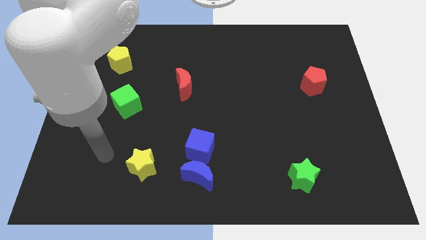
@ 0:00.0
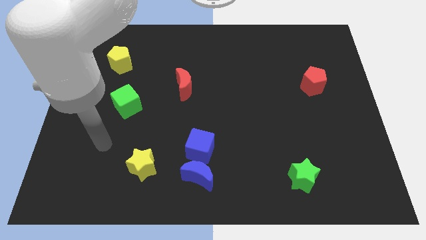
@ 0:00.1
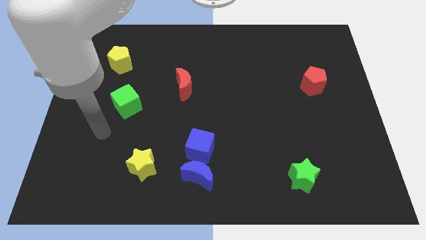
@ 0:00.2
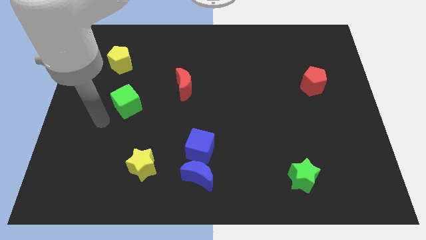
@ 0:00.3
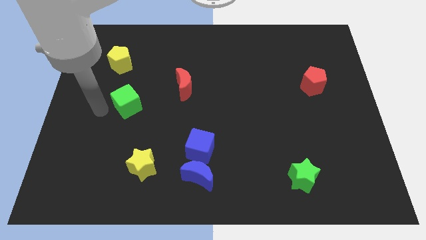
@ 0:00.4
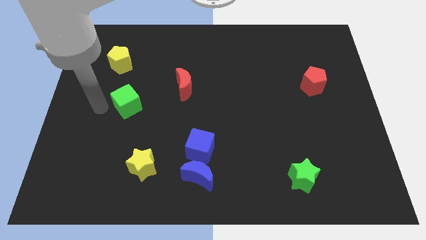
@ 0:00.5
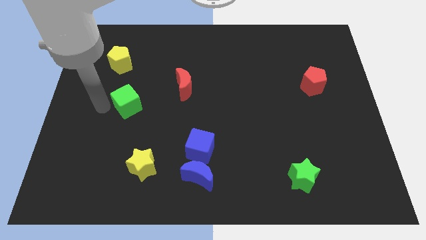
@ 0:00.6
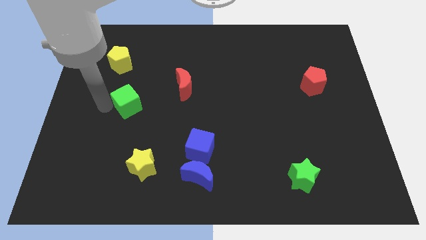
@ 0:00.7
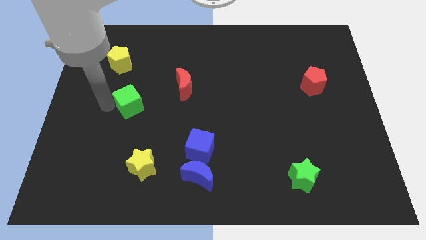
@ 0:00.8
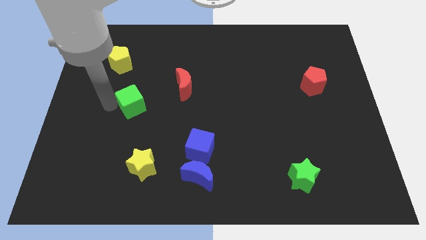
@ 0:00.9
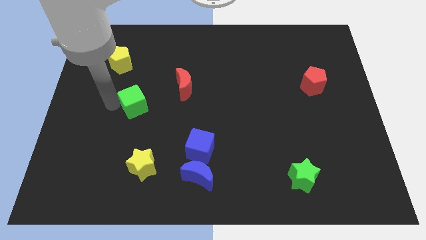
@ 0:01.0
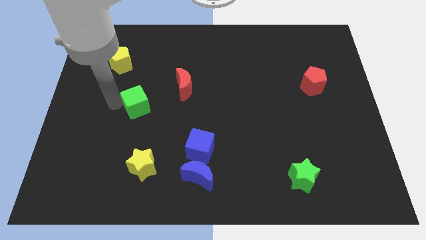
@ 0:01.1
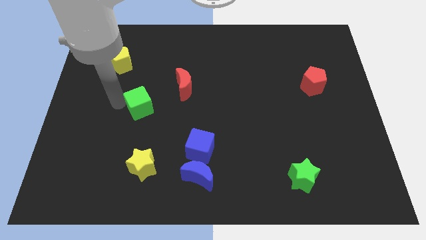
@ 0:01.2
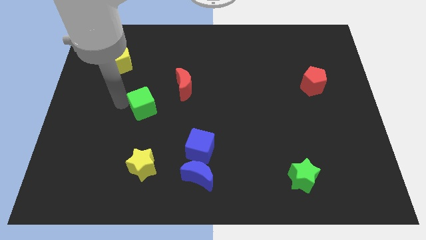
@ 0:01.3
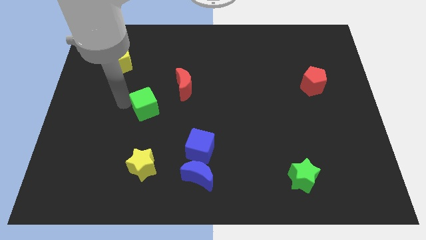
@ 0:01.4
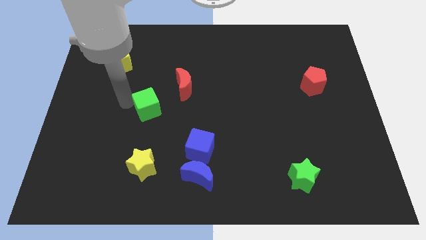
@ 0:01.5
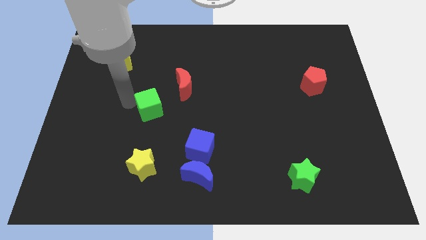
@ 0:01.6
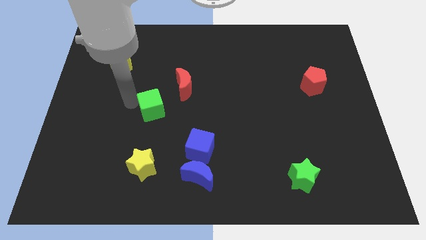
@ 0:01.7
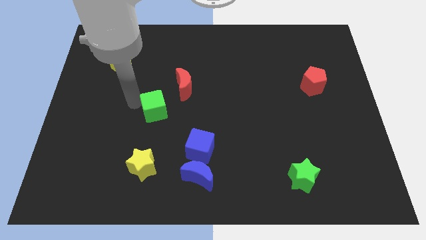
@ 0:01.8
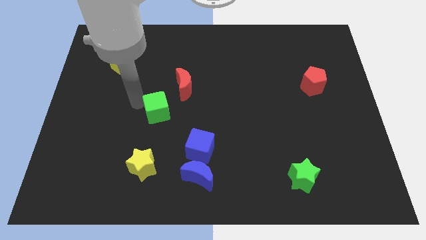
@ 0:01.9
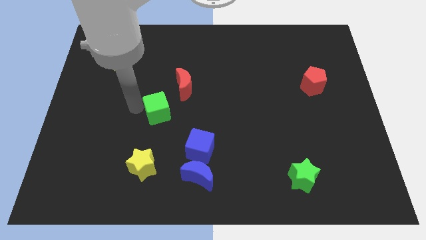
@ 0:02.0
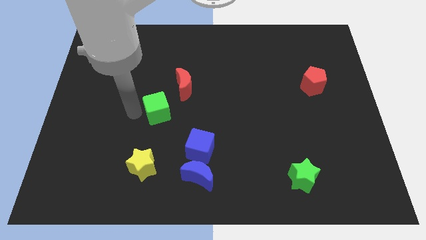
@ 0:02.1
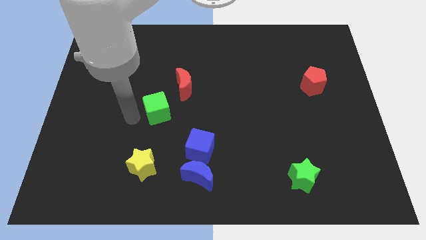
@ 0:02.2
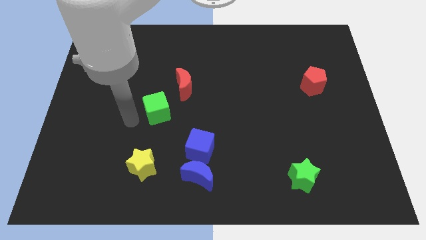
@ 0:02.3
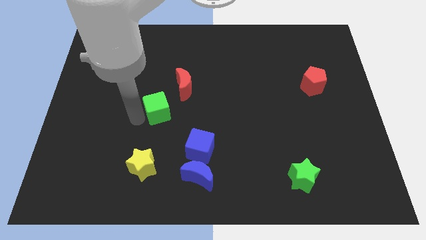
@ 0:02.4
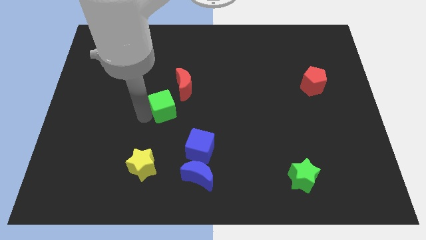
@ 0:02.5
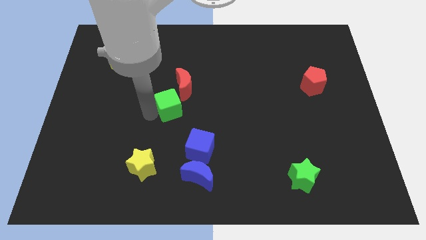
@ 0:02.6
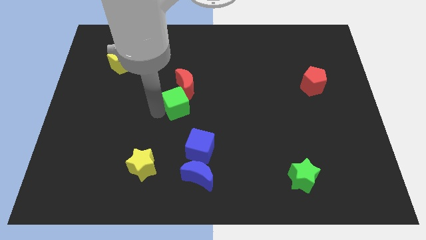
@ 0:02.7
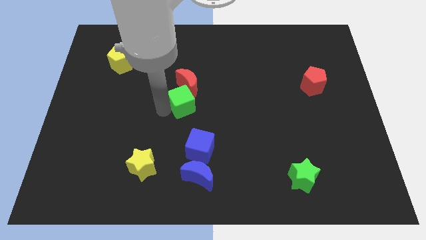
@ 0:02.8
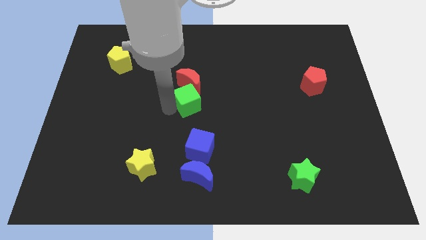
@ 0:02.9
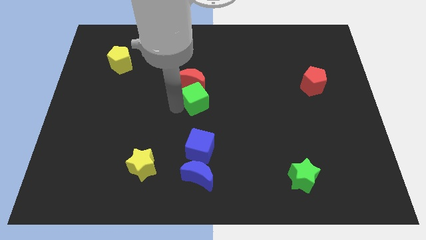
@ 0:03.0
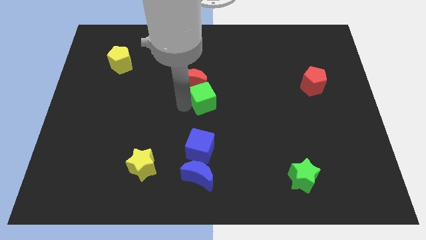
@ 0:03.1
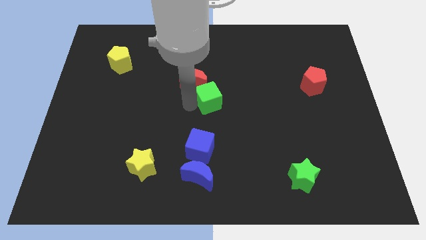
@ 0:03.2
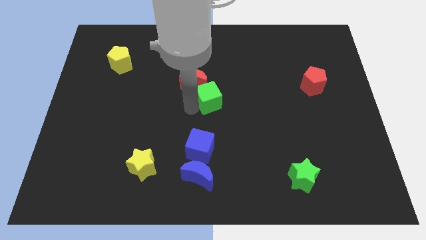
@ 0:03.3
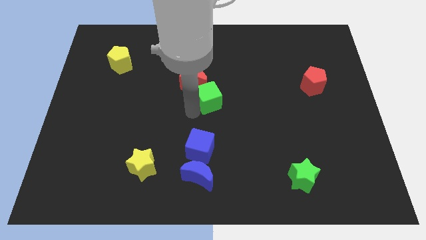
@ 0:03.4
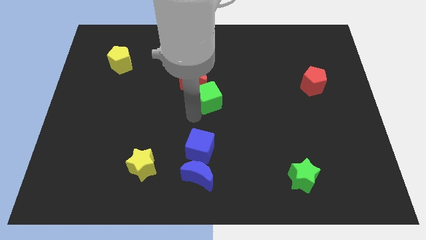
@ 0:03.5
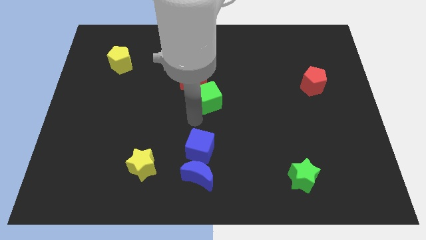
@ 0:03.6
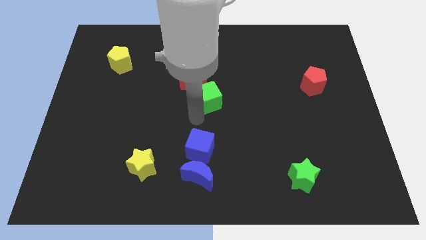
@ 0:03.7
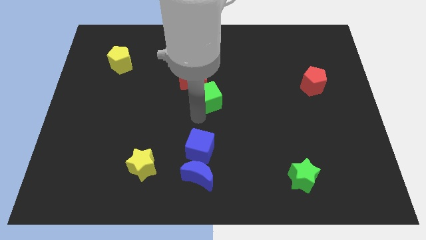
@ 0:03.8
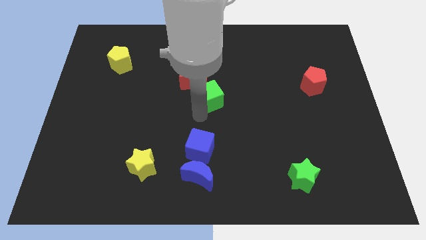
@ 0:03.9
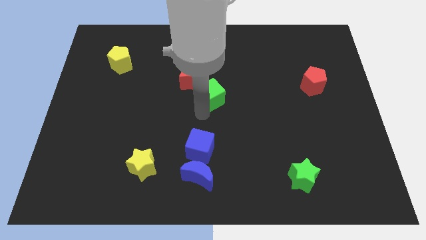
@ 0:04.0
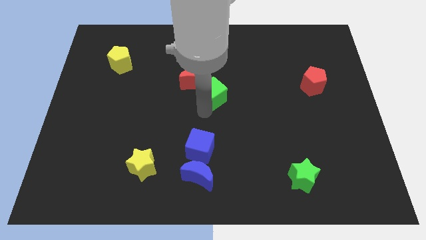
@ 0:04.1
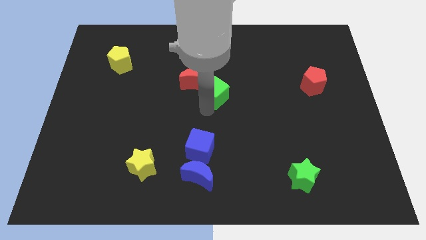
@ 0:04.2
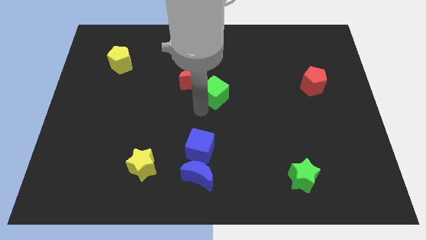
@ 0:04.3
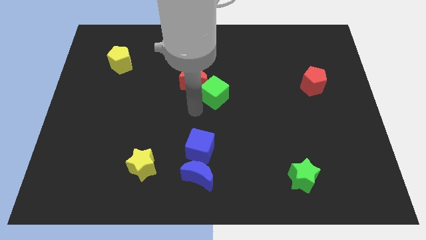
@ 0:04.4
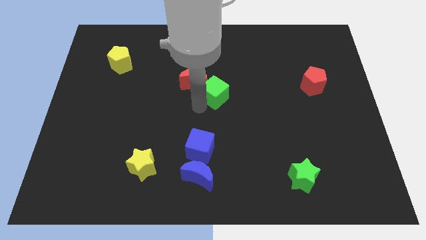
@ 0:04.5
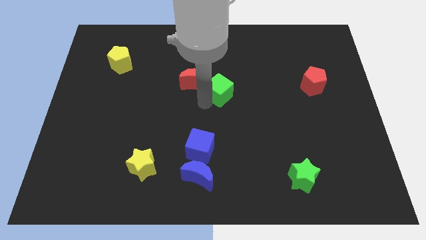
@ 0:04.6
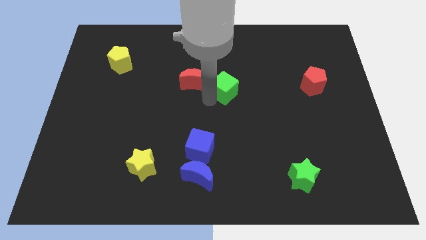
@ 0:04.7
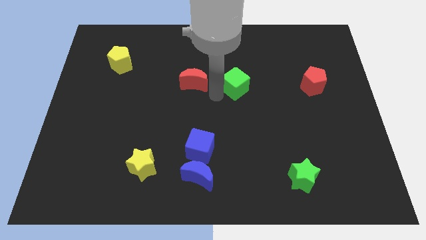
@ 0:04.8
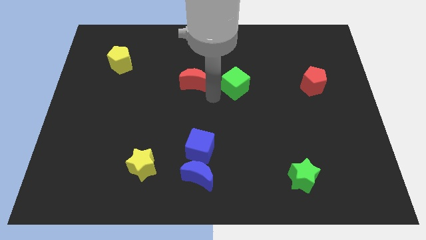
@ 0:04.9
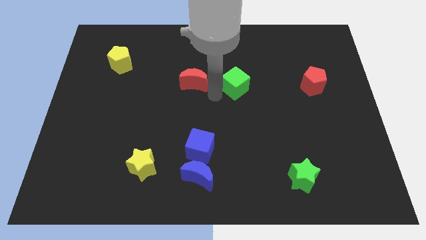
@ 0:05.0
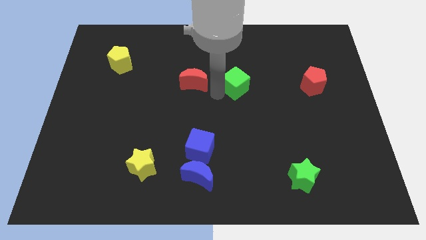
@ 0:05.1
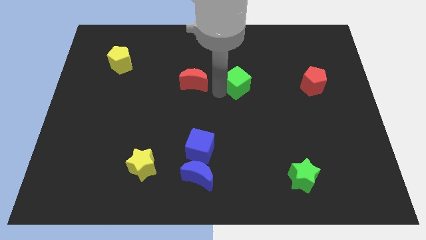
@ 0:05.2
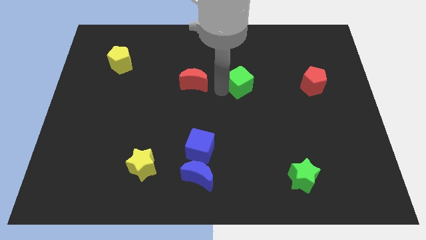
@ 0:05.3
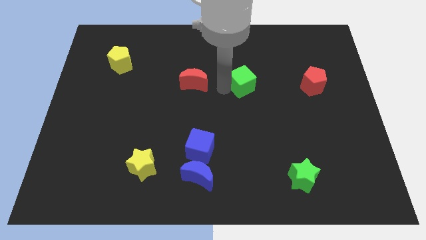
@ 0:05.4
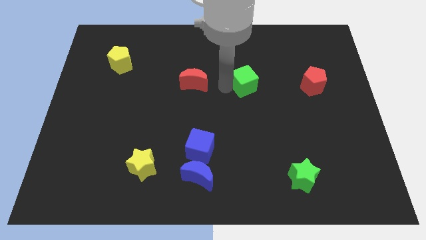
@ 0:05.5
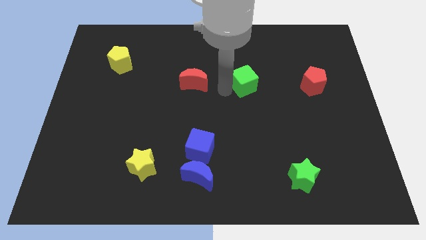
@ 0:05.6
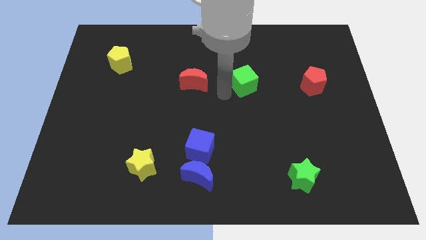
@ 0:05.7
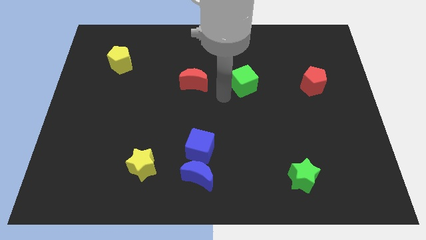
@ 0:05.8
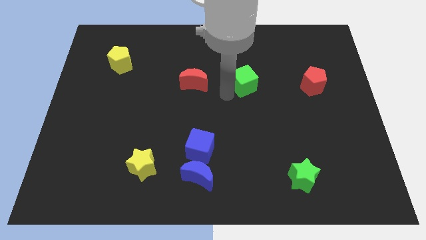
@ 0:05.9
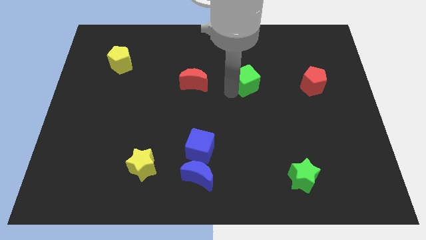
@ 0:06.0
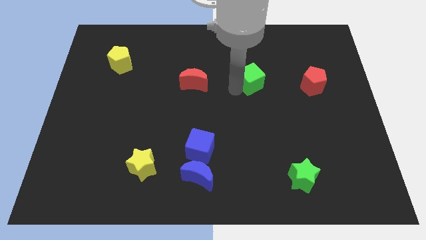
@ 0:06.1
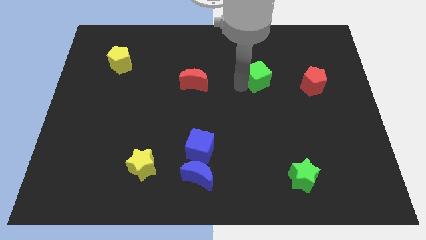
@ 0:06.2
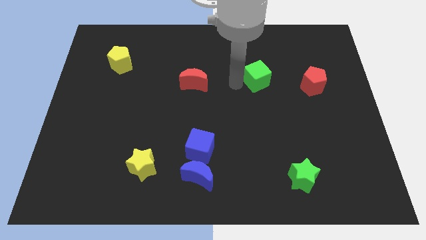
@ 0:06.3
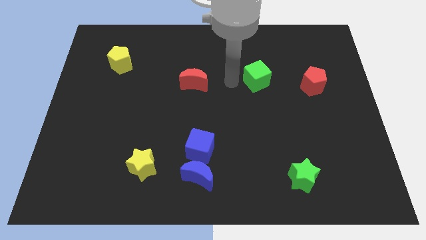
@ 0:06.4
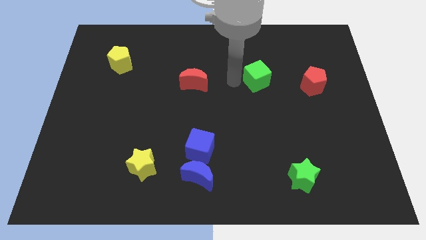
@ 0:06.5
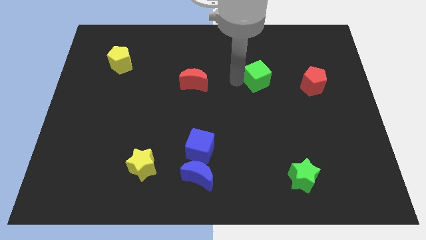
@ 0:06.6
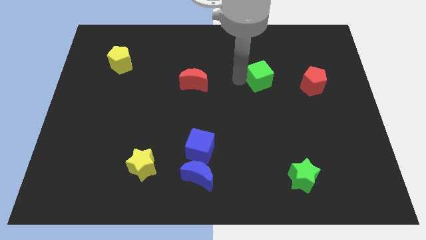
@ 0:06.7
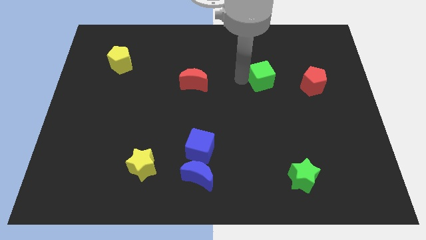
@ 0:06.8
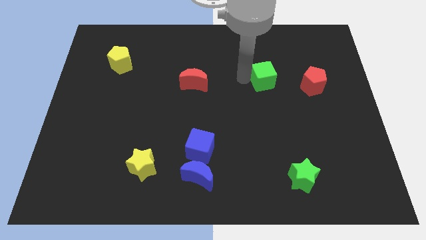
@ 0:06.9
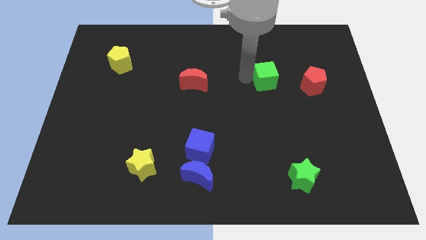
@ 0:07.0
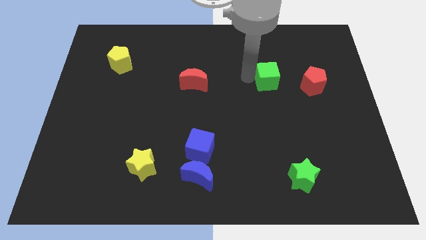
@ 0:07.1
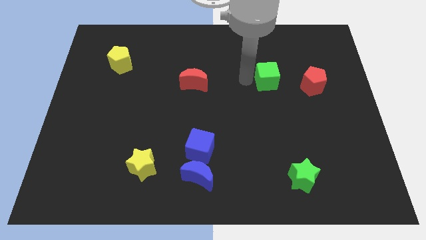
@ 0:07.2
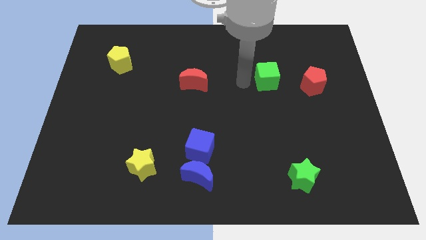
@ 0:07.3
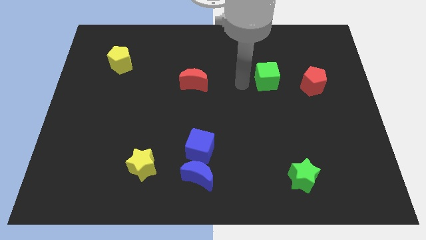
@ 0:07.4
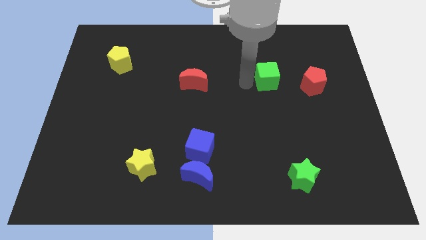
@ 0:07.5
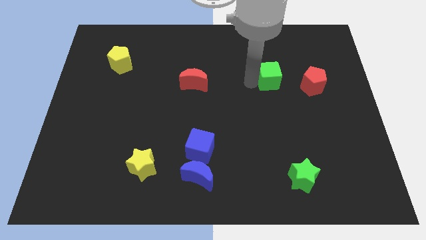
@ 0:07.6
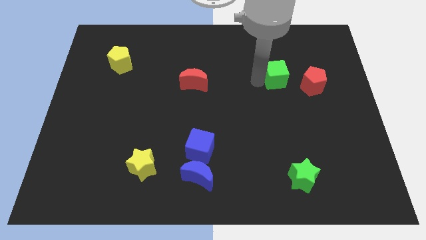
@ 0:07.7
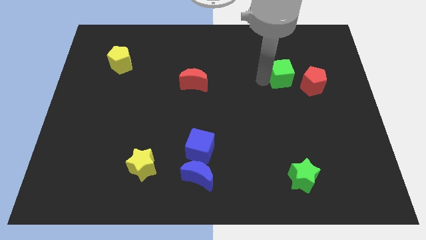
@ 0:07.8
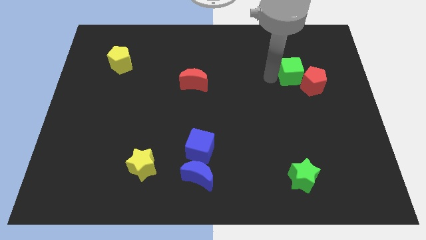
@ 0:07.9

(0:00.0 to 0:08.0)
push the green cube to the red pentagon
